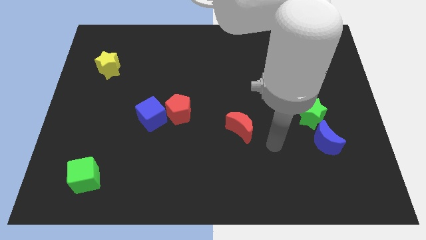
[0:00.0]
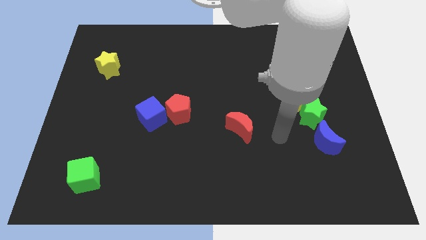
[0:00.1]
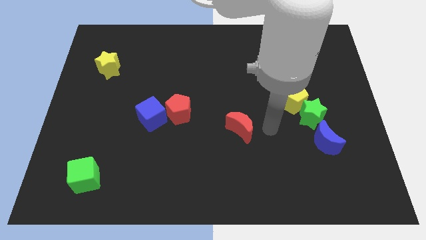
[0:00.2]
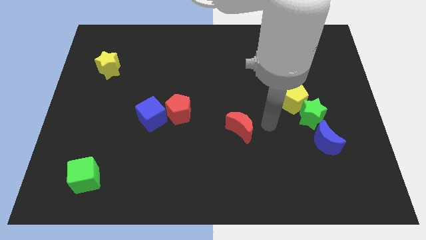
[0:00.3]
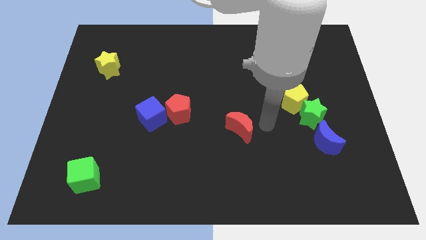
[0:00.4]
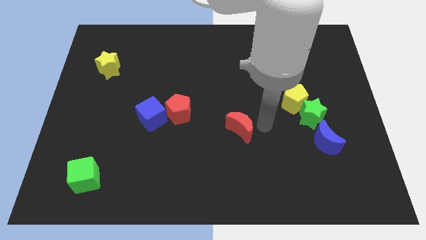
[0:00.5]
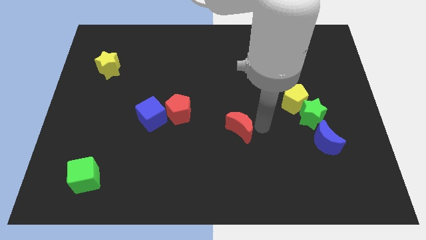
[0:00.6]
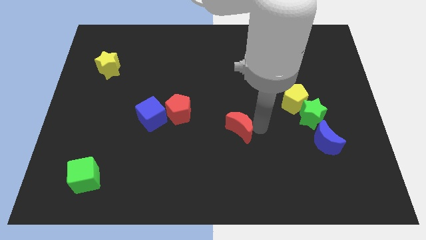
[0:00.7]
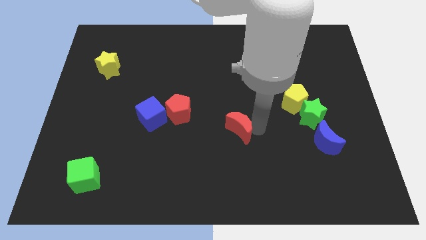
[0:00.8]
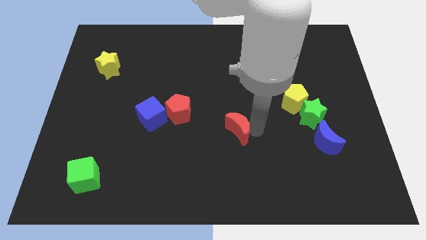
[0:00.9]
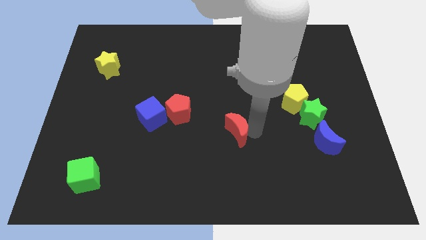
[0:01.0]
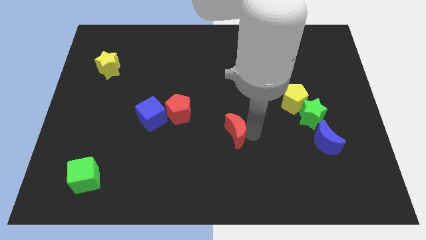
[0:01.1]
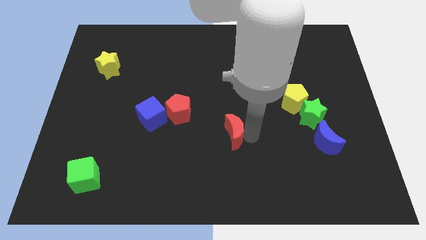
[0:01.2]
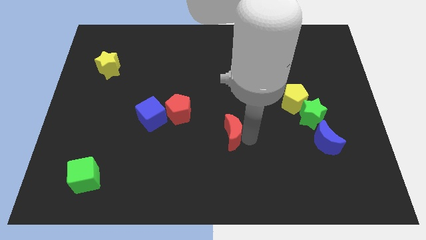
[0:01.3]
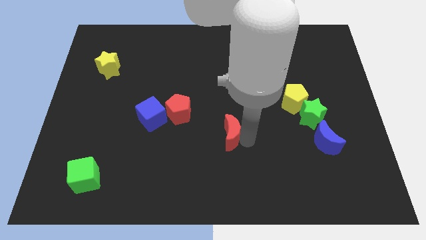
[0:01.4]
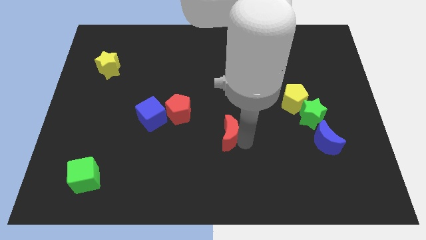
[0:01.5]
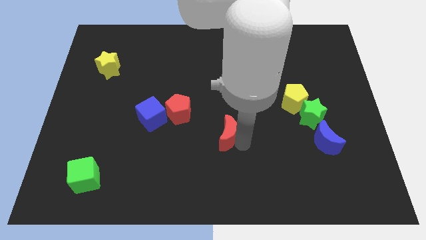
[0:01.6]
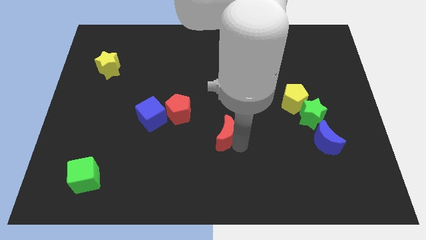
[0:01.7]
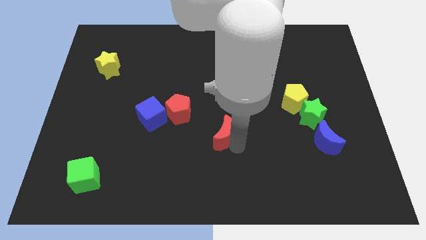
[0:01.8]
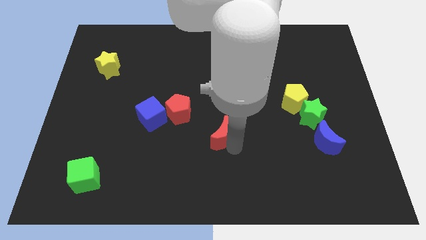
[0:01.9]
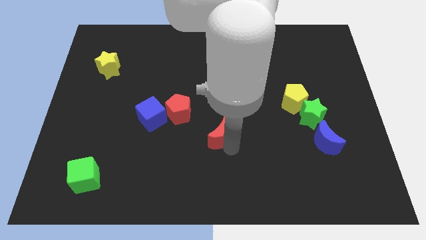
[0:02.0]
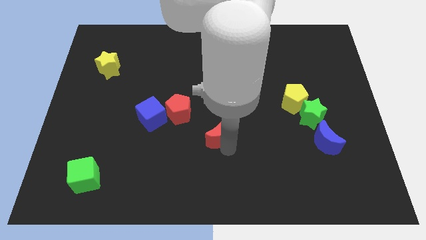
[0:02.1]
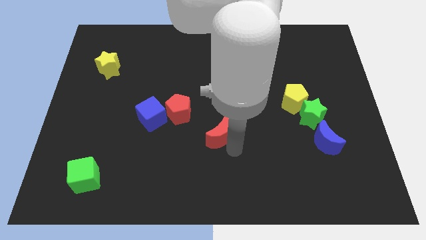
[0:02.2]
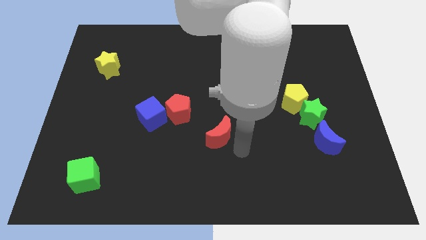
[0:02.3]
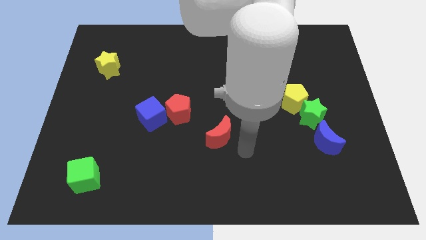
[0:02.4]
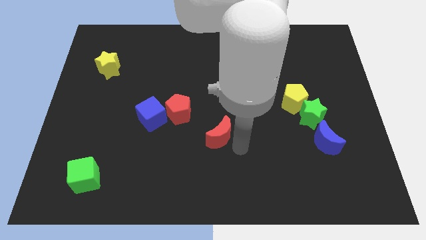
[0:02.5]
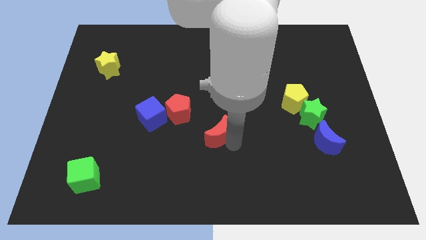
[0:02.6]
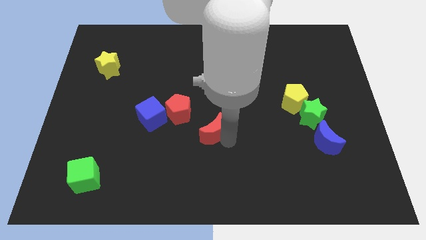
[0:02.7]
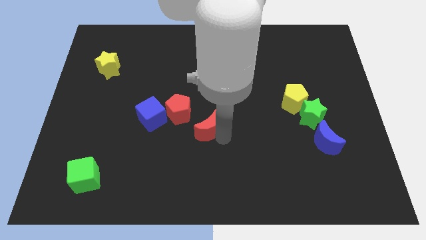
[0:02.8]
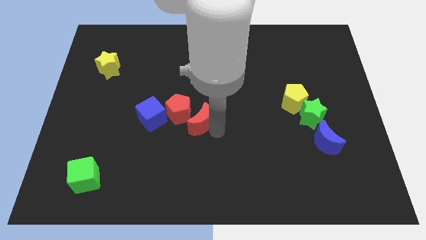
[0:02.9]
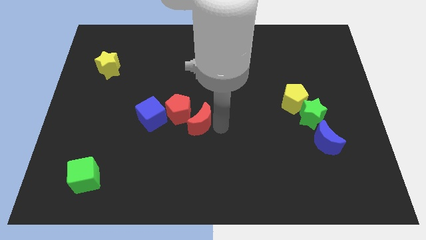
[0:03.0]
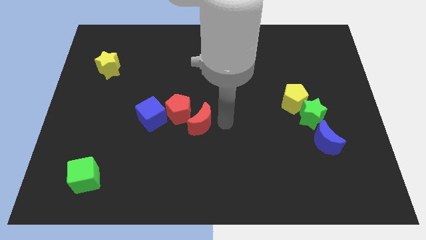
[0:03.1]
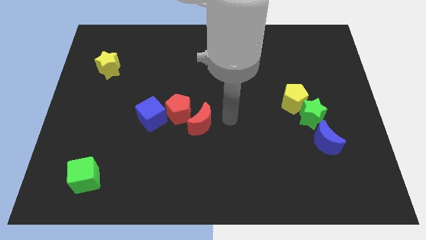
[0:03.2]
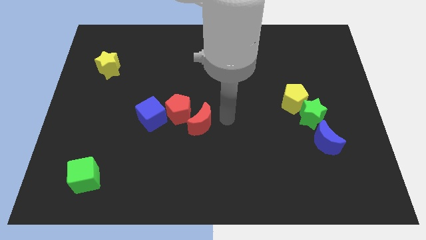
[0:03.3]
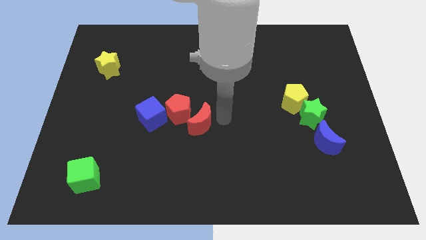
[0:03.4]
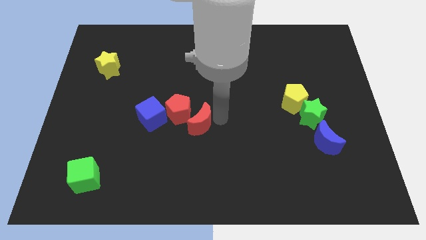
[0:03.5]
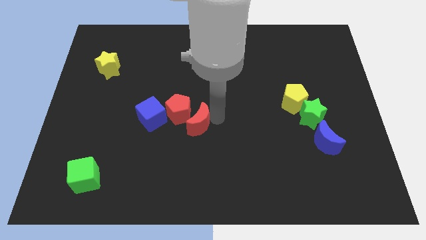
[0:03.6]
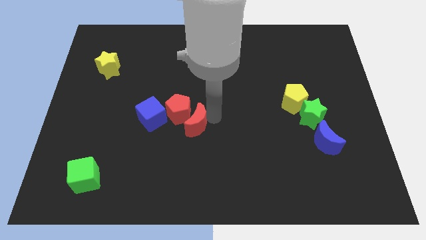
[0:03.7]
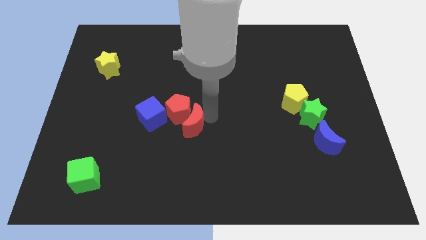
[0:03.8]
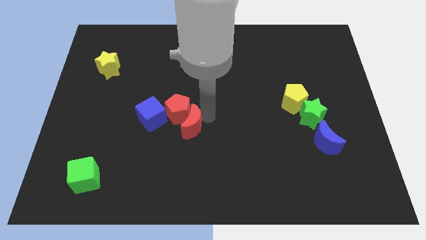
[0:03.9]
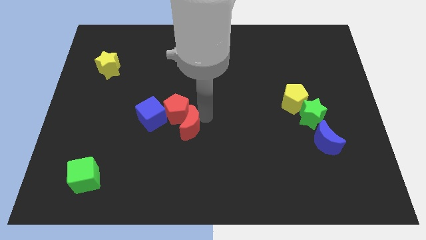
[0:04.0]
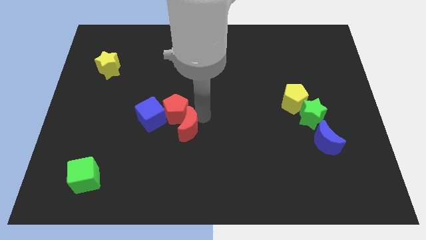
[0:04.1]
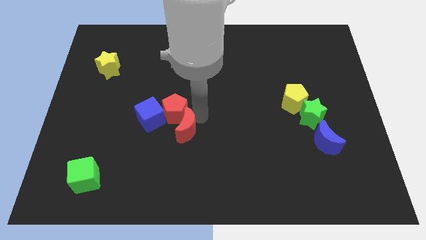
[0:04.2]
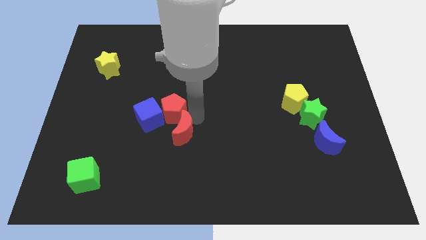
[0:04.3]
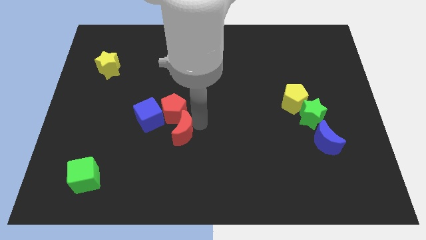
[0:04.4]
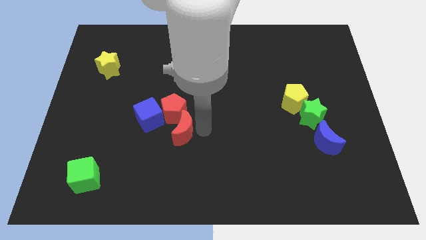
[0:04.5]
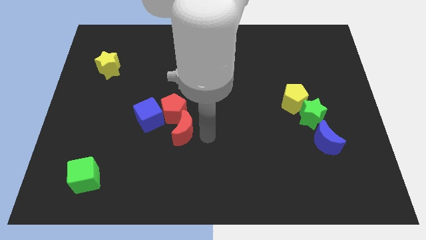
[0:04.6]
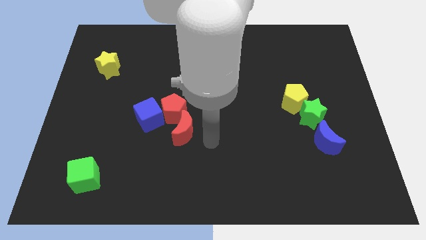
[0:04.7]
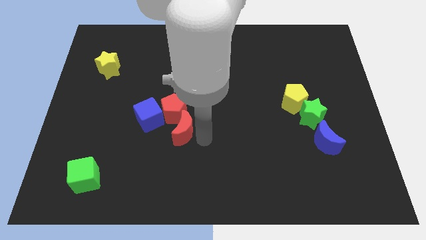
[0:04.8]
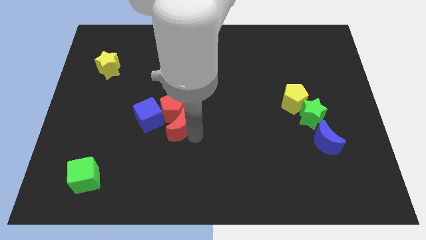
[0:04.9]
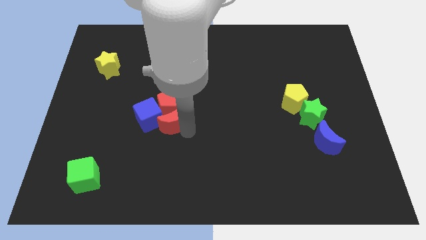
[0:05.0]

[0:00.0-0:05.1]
push the red moon next to the blue cube

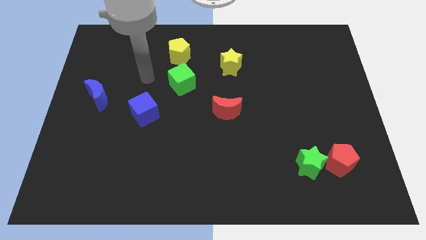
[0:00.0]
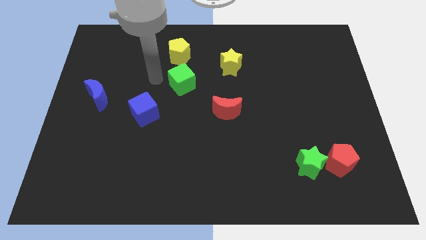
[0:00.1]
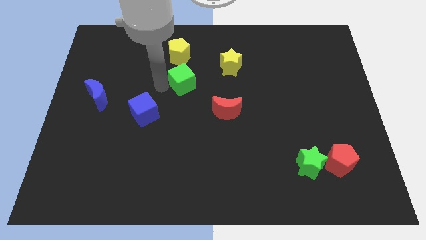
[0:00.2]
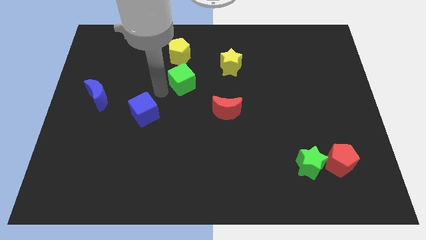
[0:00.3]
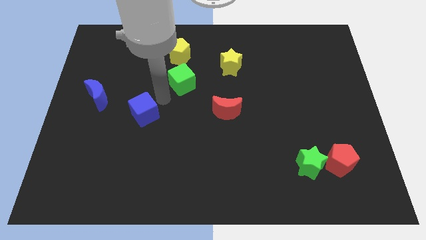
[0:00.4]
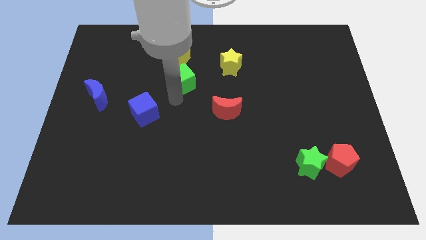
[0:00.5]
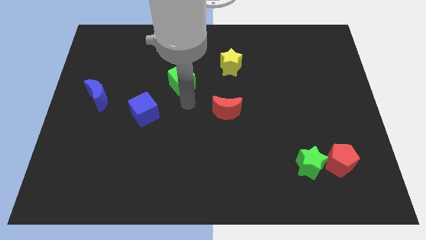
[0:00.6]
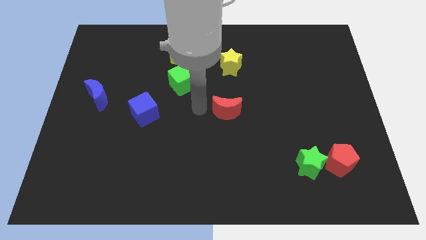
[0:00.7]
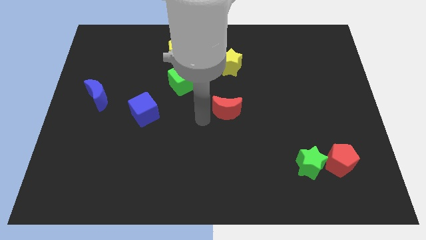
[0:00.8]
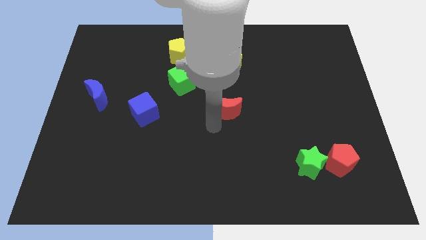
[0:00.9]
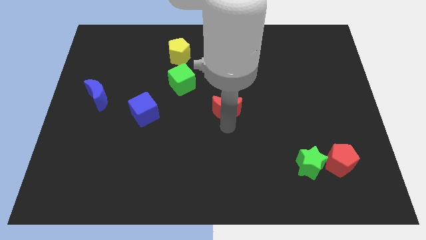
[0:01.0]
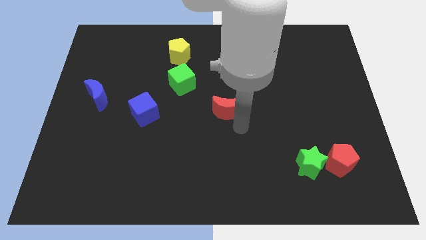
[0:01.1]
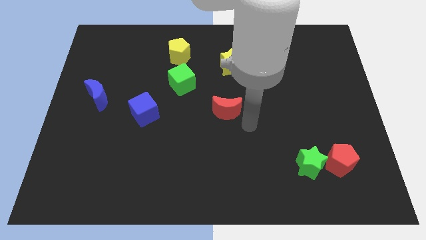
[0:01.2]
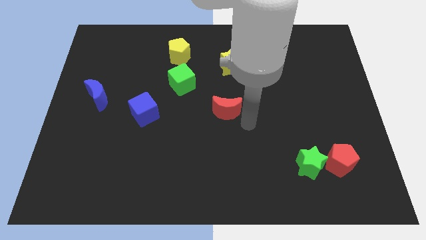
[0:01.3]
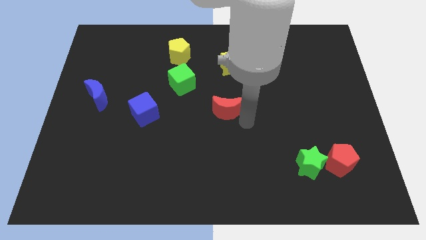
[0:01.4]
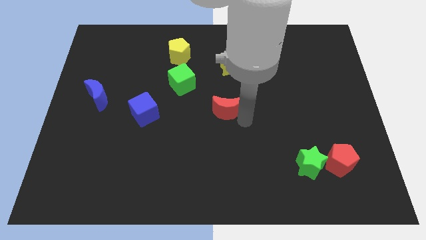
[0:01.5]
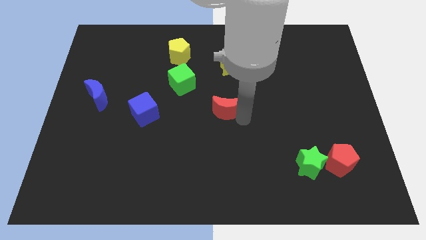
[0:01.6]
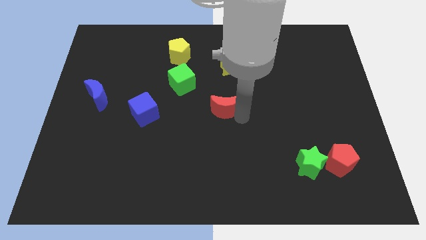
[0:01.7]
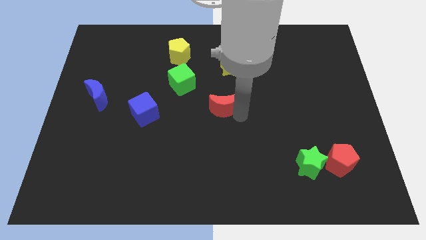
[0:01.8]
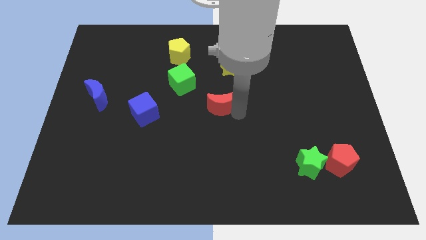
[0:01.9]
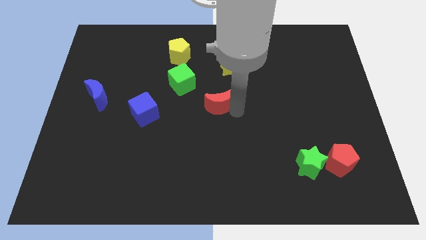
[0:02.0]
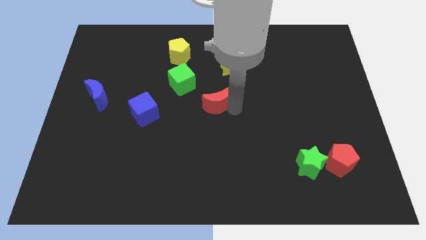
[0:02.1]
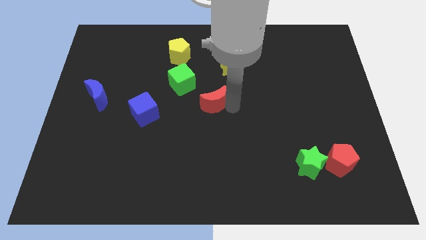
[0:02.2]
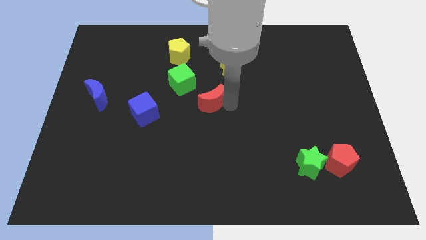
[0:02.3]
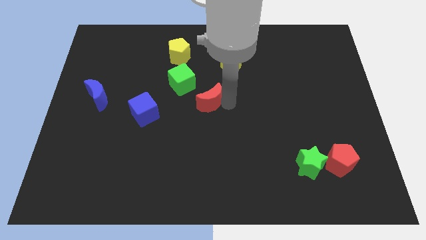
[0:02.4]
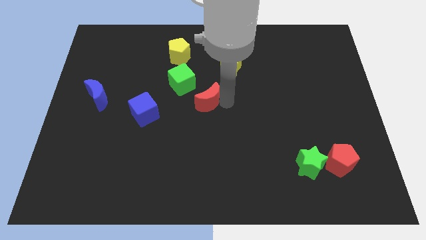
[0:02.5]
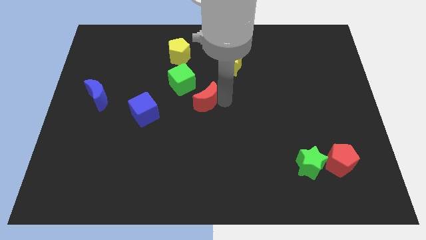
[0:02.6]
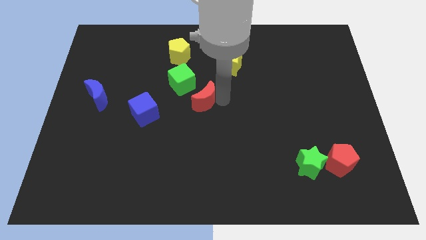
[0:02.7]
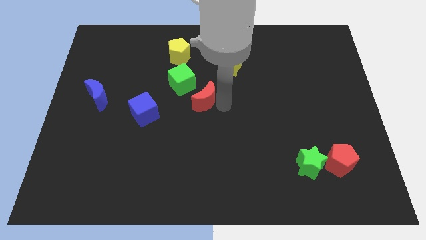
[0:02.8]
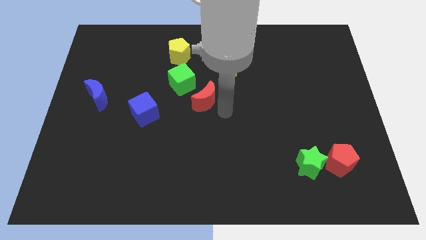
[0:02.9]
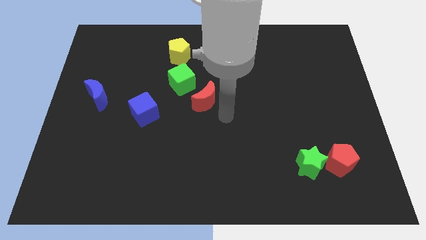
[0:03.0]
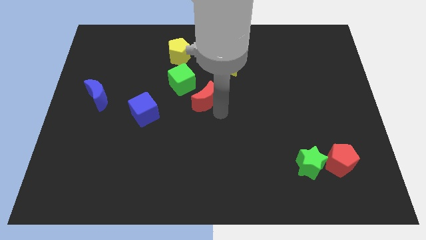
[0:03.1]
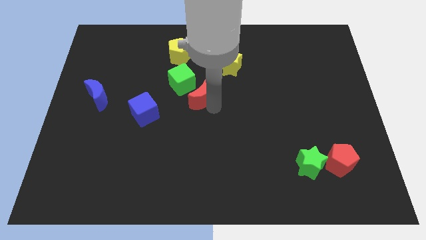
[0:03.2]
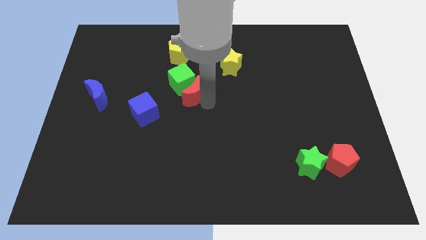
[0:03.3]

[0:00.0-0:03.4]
push the red moon towards the green cube
